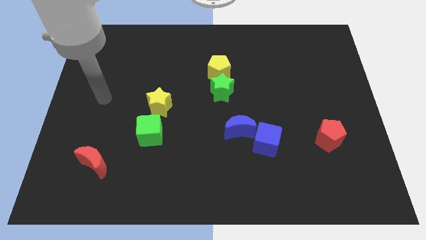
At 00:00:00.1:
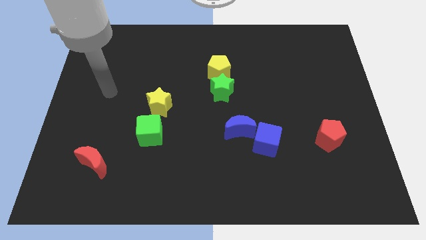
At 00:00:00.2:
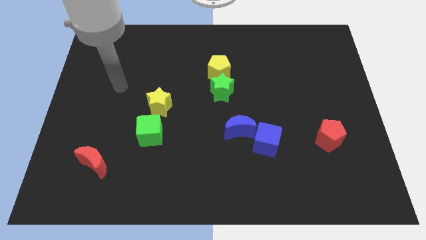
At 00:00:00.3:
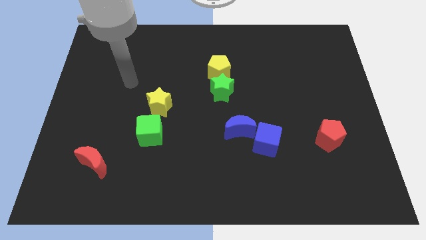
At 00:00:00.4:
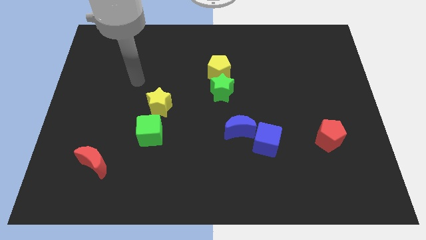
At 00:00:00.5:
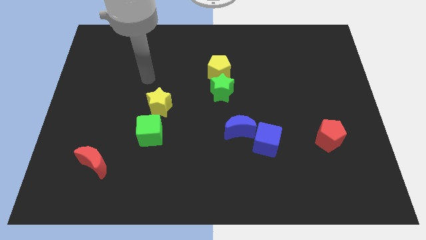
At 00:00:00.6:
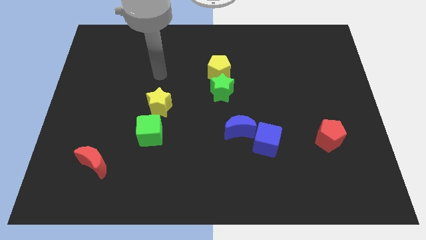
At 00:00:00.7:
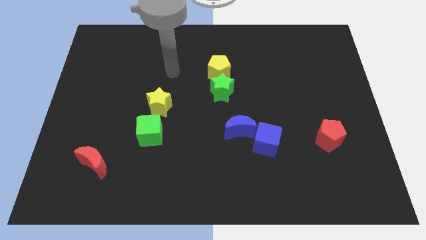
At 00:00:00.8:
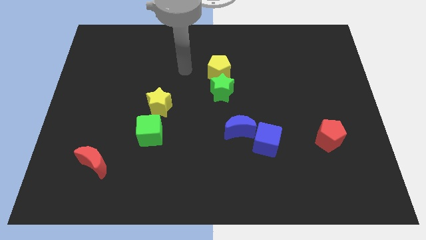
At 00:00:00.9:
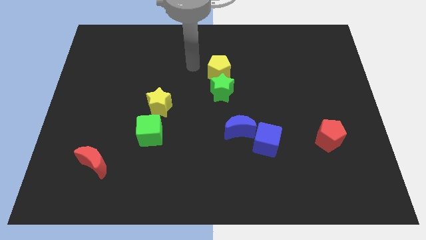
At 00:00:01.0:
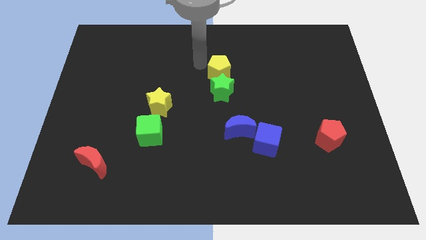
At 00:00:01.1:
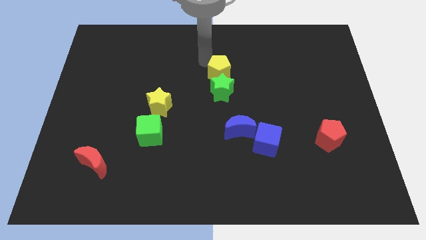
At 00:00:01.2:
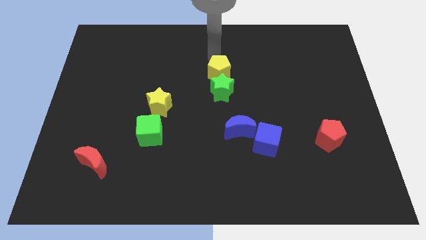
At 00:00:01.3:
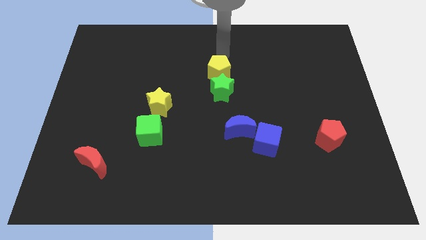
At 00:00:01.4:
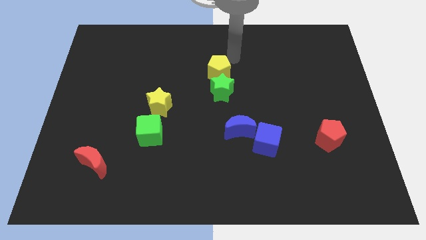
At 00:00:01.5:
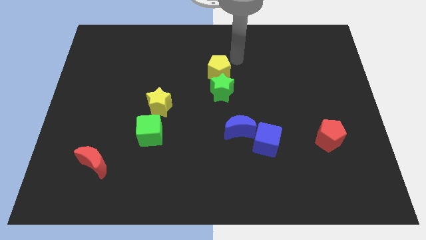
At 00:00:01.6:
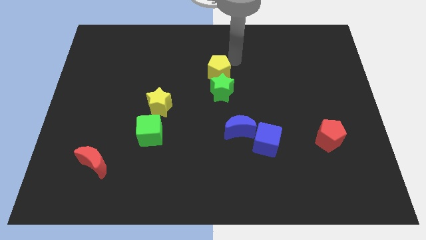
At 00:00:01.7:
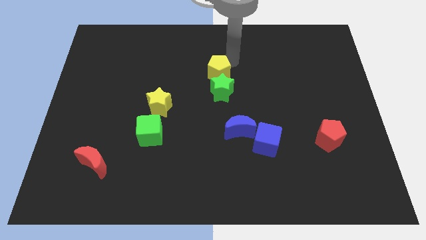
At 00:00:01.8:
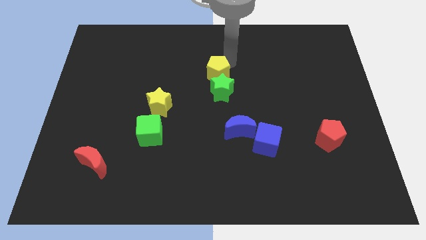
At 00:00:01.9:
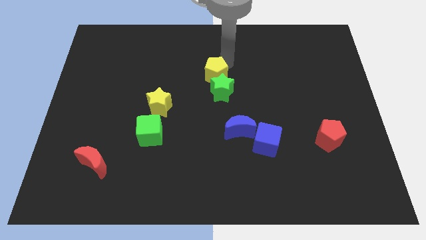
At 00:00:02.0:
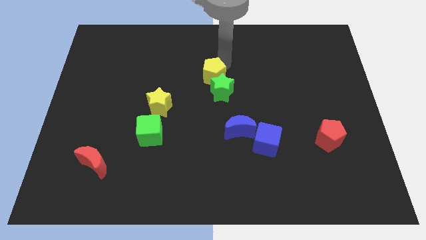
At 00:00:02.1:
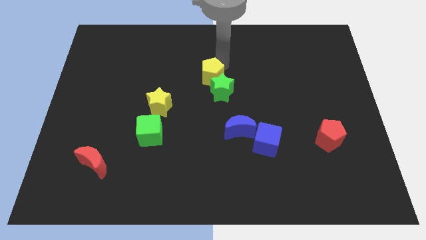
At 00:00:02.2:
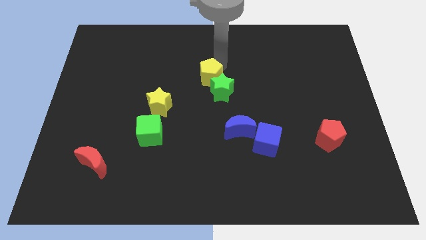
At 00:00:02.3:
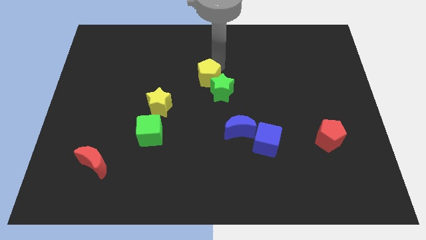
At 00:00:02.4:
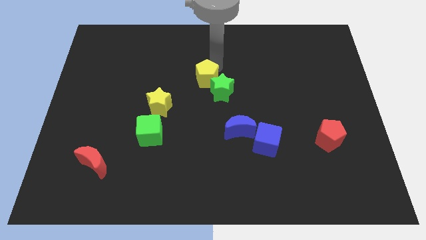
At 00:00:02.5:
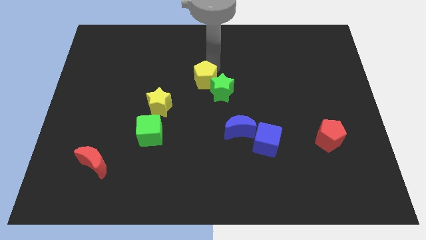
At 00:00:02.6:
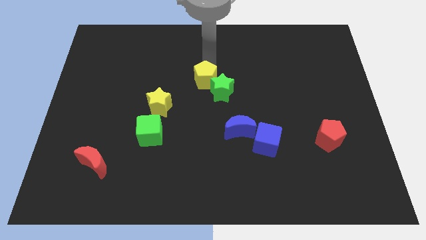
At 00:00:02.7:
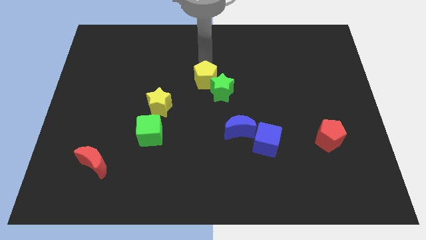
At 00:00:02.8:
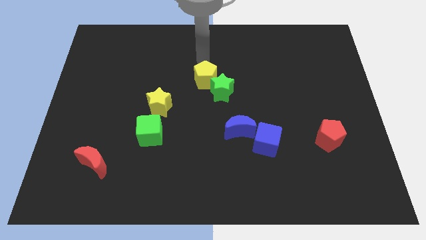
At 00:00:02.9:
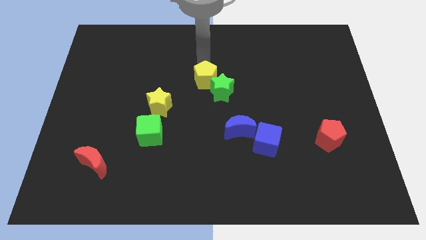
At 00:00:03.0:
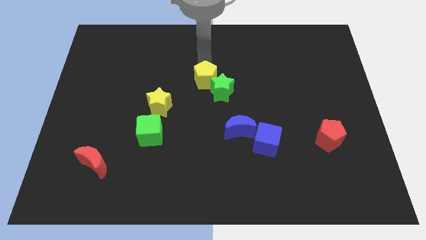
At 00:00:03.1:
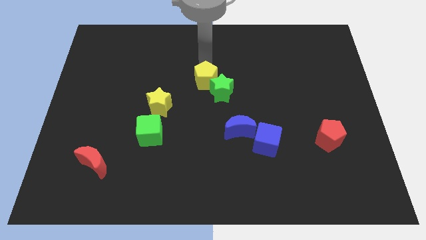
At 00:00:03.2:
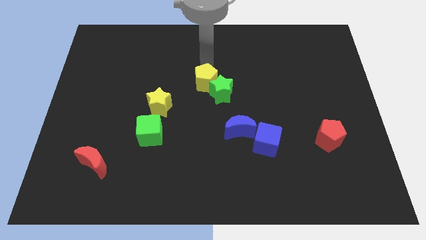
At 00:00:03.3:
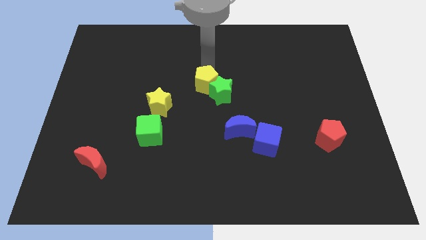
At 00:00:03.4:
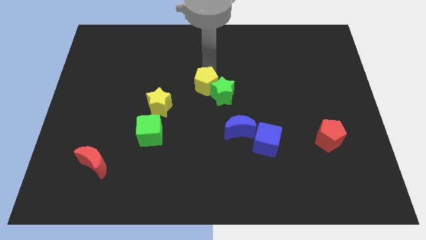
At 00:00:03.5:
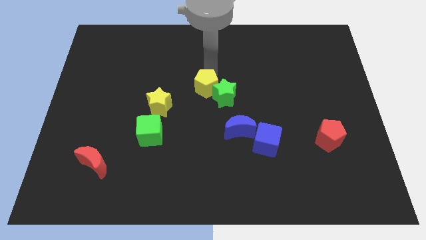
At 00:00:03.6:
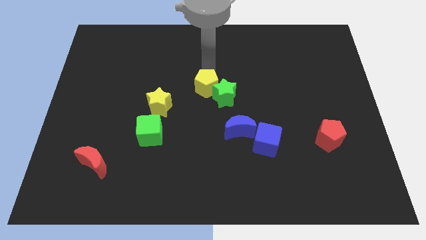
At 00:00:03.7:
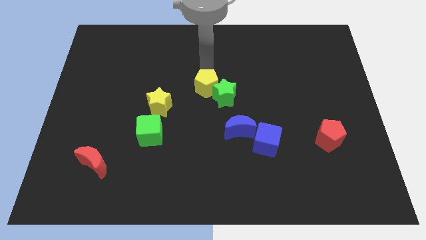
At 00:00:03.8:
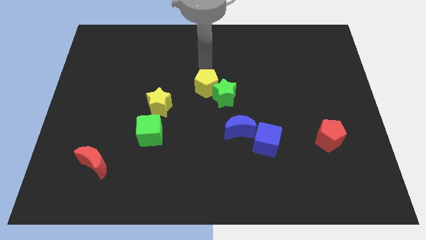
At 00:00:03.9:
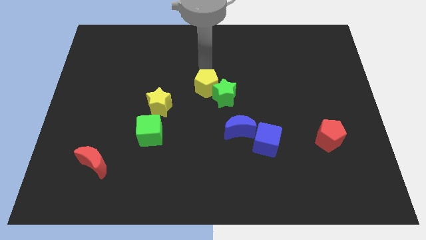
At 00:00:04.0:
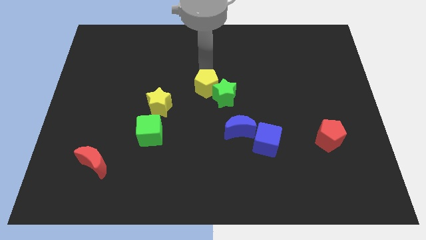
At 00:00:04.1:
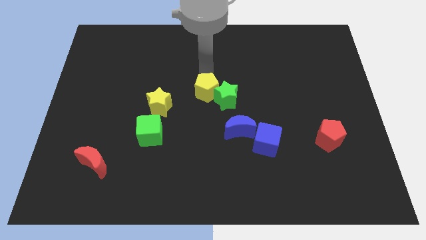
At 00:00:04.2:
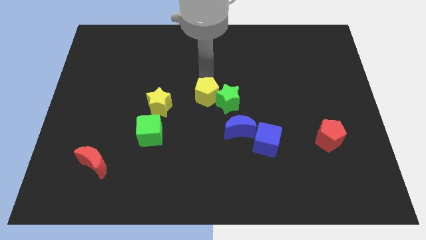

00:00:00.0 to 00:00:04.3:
move the yellow pentagon somewhat downwards

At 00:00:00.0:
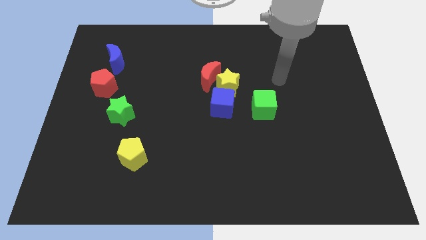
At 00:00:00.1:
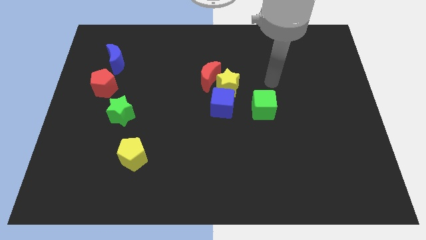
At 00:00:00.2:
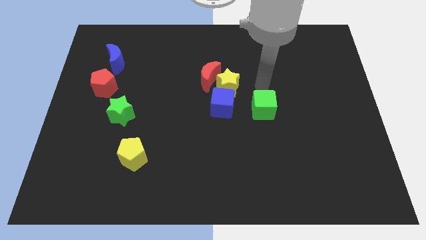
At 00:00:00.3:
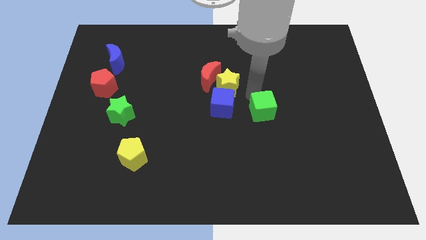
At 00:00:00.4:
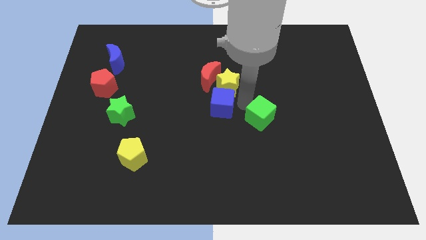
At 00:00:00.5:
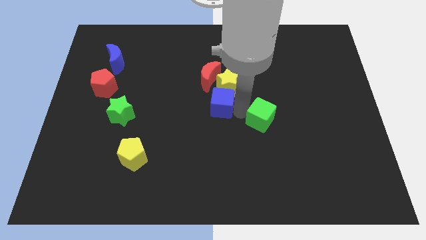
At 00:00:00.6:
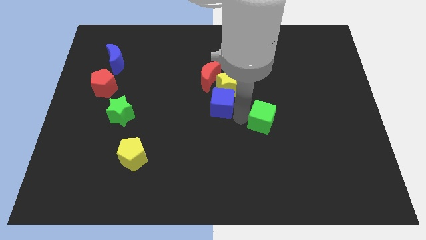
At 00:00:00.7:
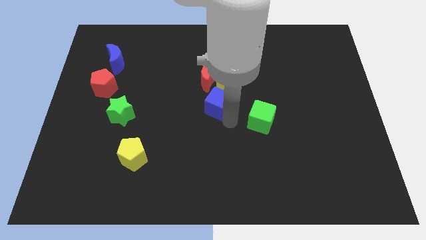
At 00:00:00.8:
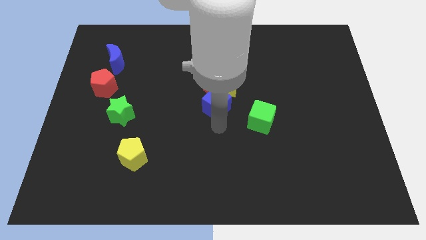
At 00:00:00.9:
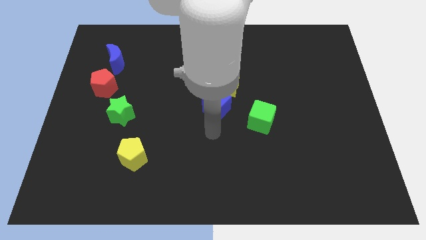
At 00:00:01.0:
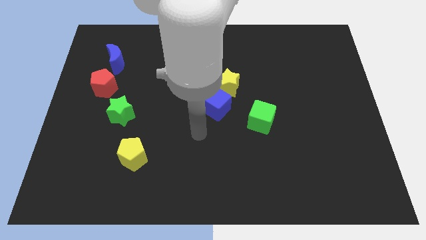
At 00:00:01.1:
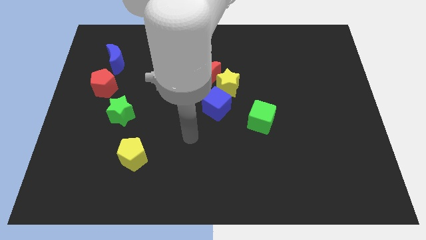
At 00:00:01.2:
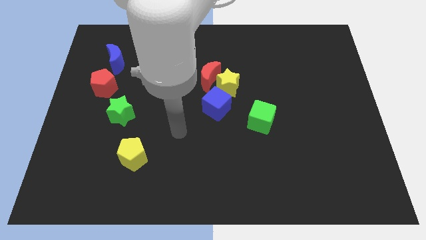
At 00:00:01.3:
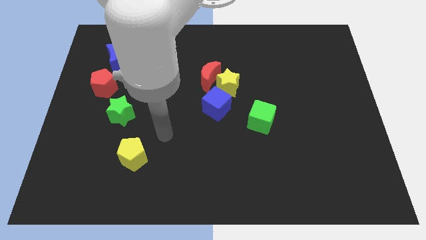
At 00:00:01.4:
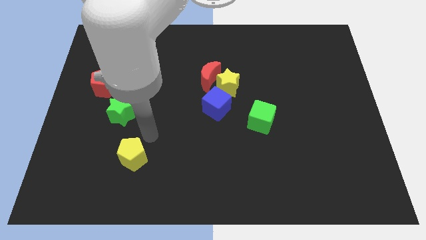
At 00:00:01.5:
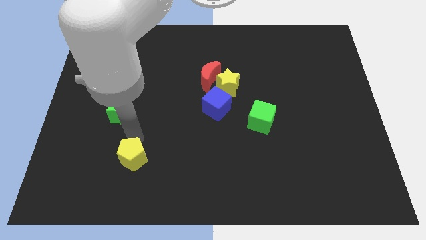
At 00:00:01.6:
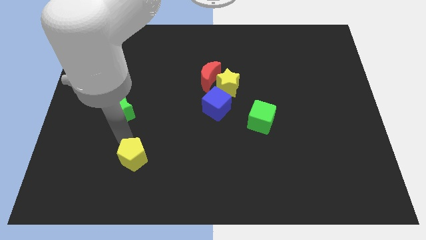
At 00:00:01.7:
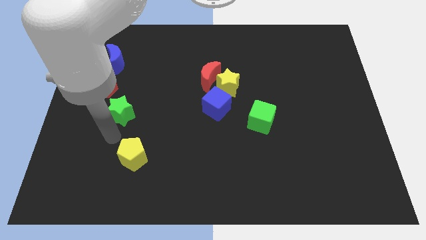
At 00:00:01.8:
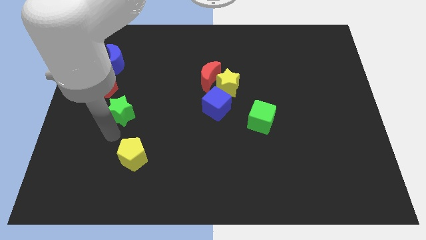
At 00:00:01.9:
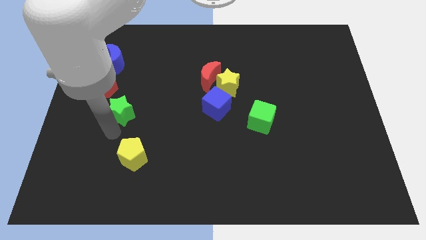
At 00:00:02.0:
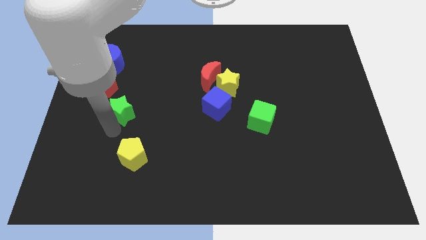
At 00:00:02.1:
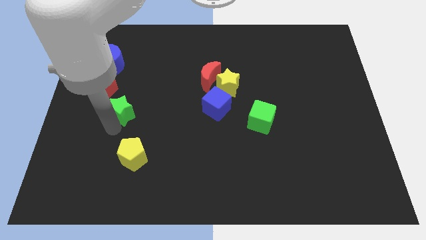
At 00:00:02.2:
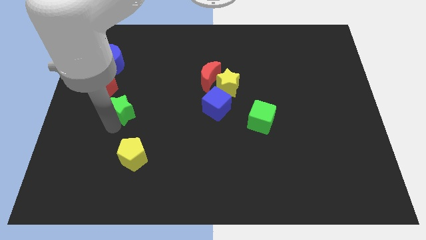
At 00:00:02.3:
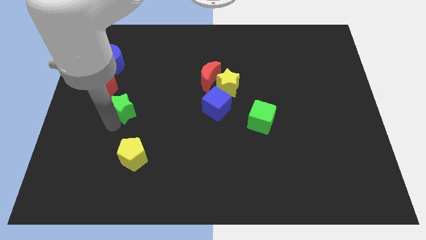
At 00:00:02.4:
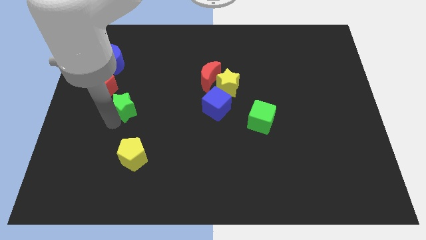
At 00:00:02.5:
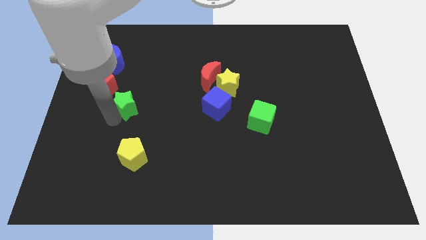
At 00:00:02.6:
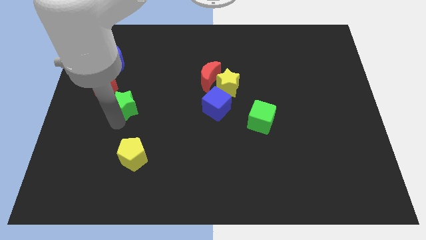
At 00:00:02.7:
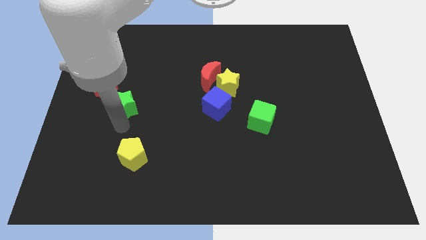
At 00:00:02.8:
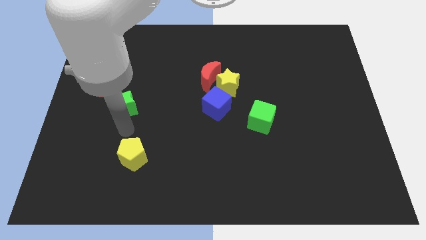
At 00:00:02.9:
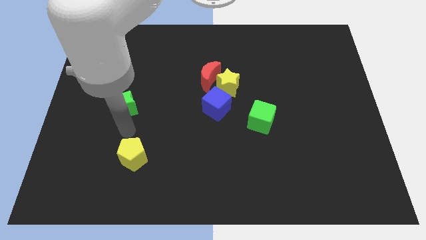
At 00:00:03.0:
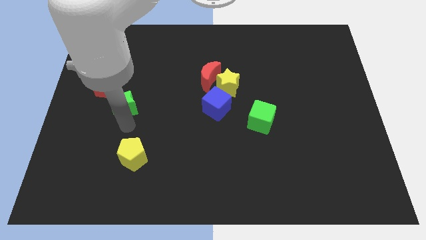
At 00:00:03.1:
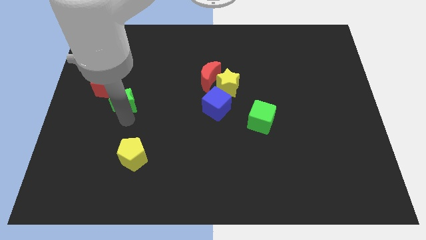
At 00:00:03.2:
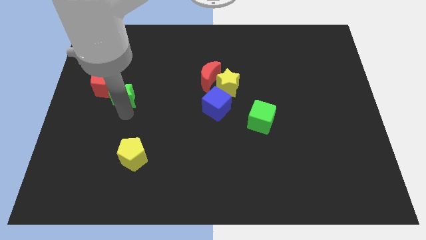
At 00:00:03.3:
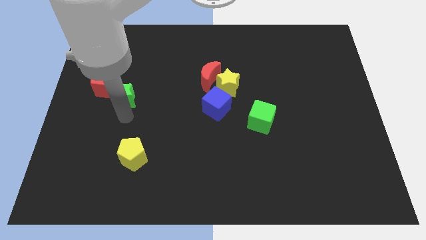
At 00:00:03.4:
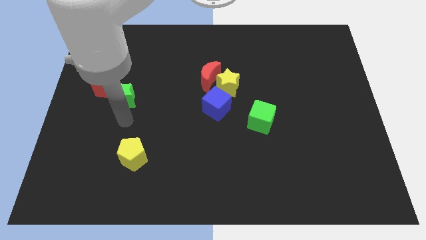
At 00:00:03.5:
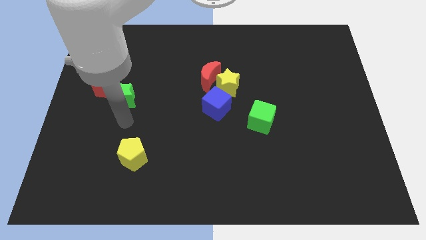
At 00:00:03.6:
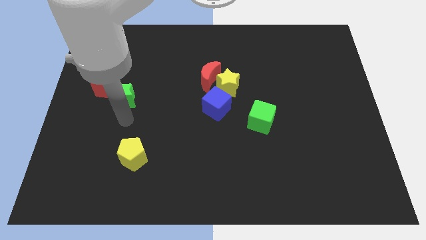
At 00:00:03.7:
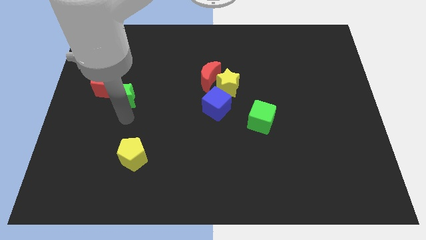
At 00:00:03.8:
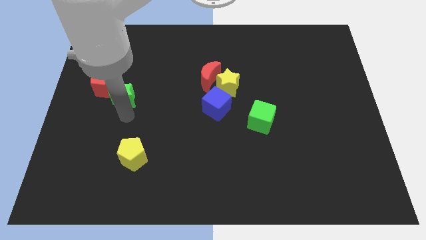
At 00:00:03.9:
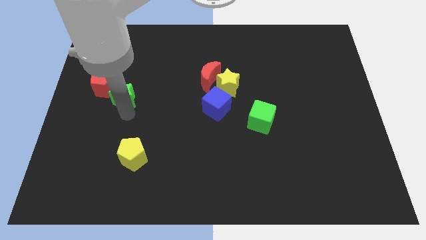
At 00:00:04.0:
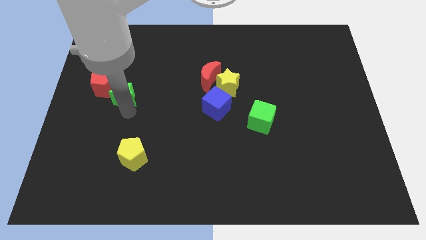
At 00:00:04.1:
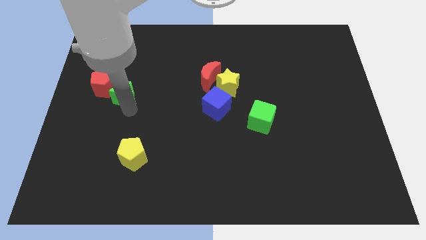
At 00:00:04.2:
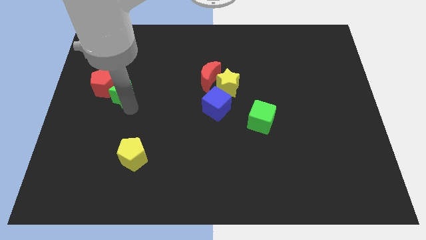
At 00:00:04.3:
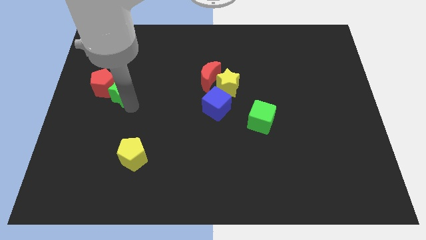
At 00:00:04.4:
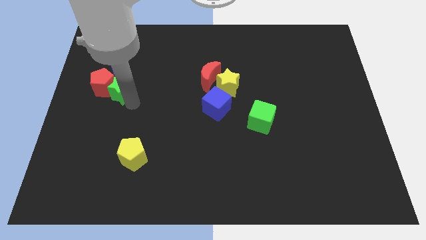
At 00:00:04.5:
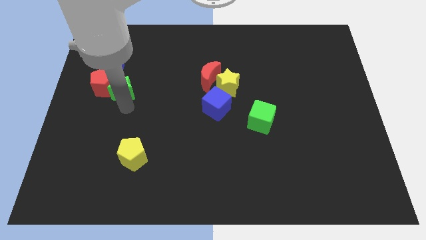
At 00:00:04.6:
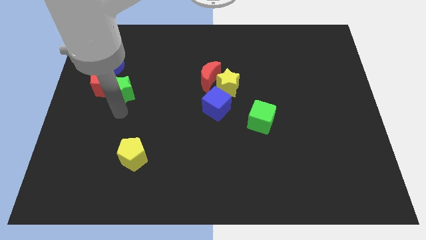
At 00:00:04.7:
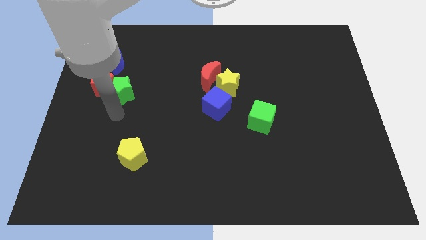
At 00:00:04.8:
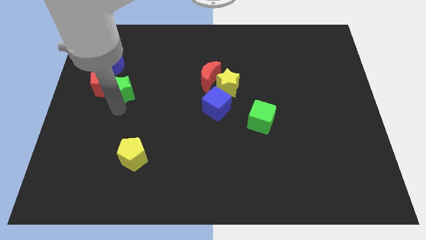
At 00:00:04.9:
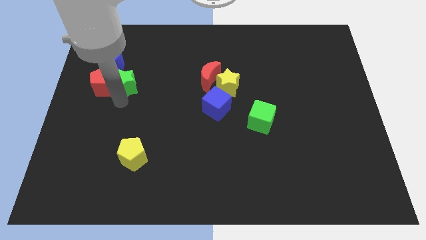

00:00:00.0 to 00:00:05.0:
push the green star upwards a little bit
